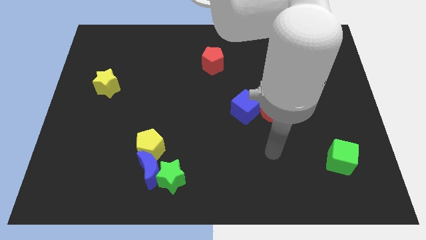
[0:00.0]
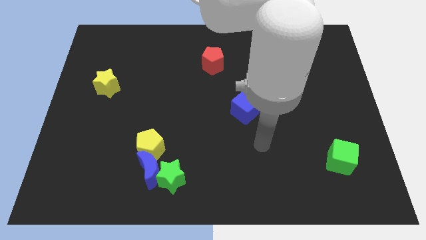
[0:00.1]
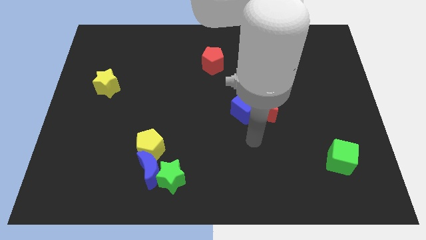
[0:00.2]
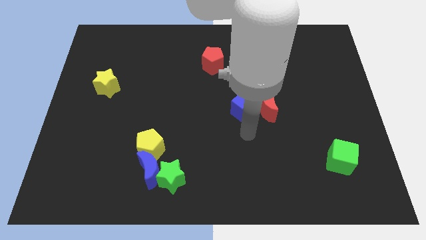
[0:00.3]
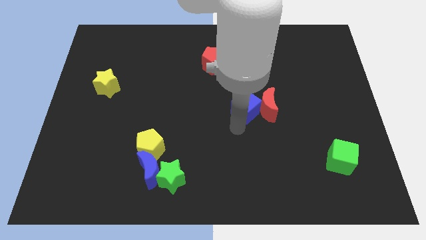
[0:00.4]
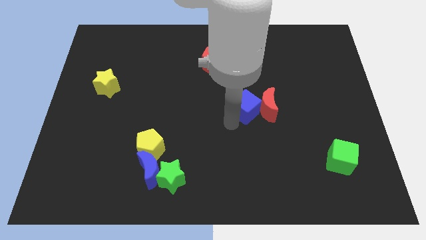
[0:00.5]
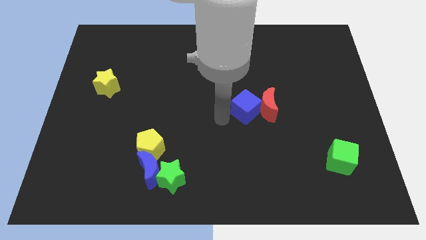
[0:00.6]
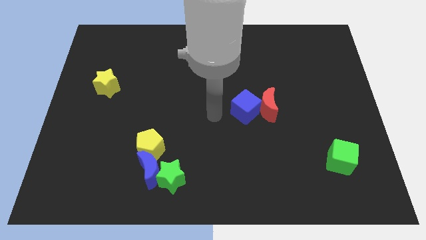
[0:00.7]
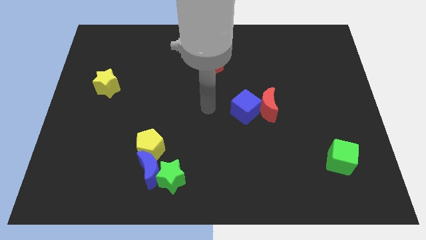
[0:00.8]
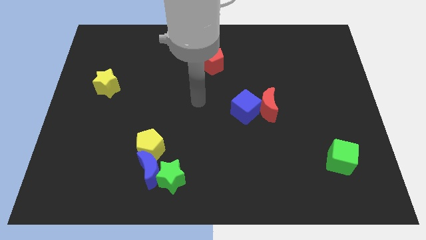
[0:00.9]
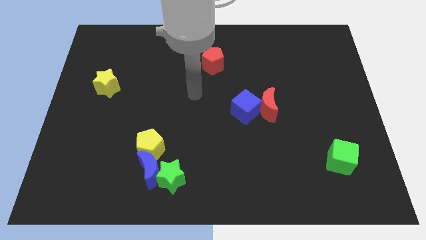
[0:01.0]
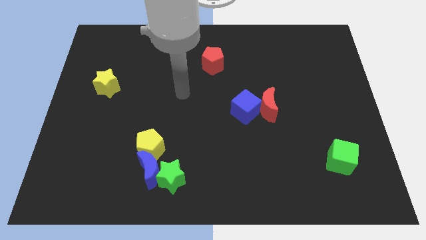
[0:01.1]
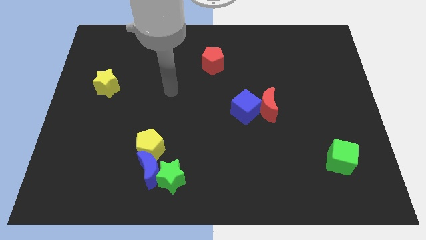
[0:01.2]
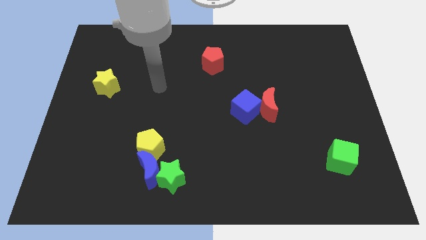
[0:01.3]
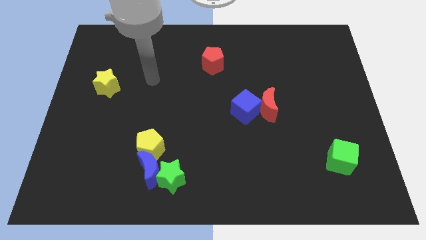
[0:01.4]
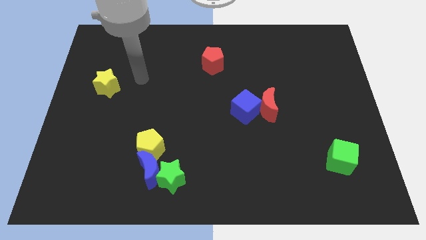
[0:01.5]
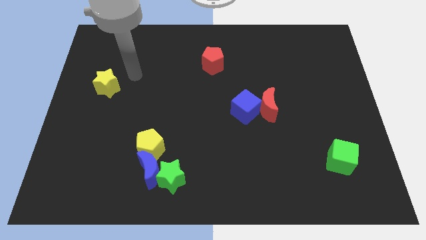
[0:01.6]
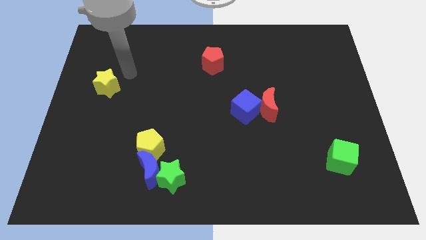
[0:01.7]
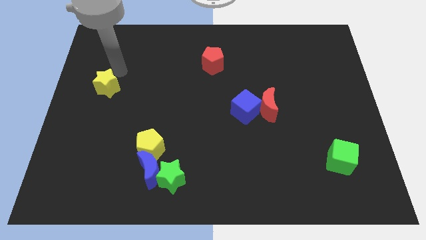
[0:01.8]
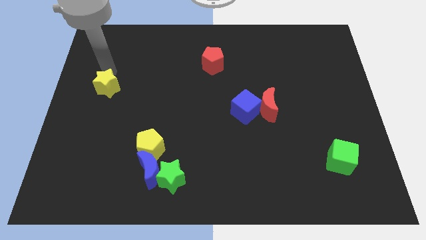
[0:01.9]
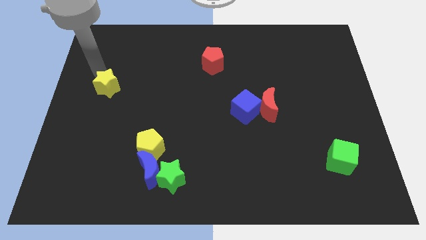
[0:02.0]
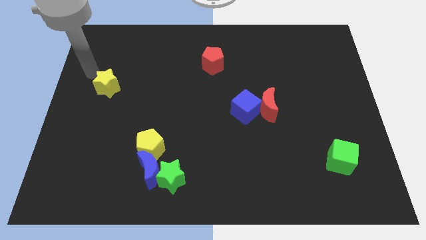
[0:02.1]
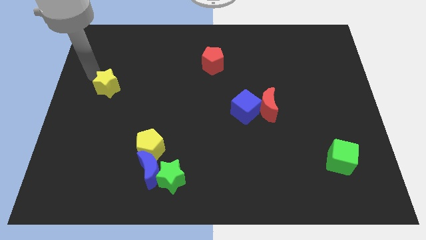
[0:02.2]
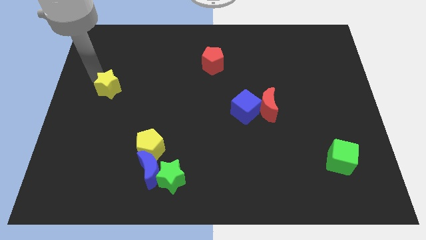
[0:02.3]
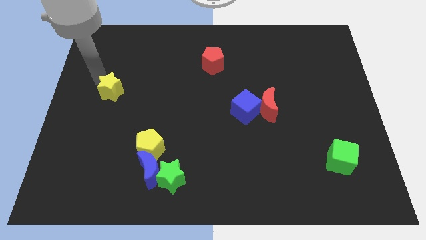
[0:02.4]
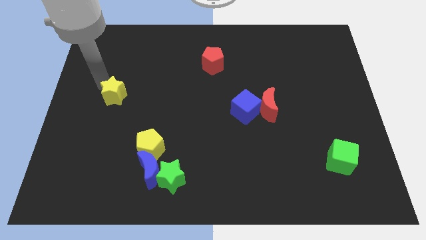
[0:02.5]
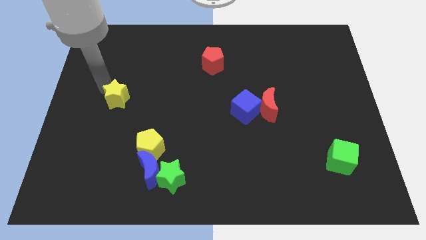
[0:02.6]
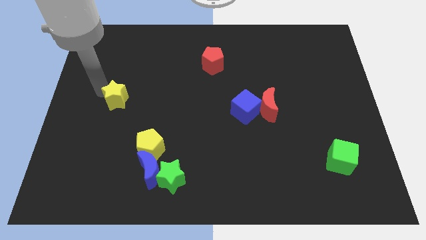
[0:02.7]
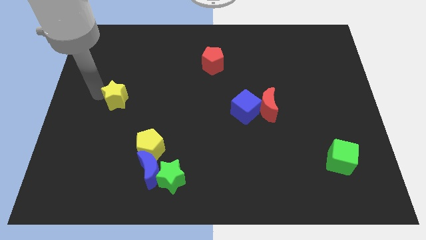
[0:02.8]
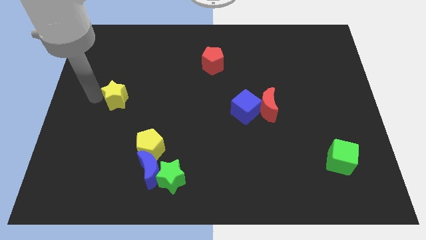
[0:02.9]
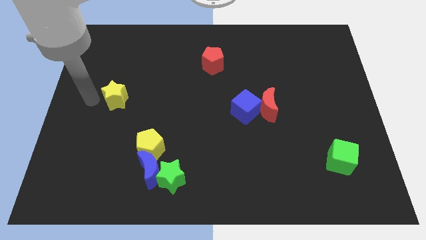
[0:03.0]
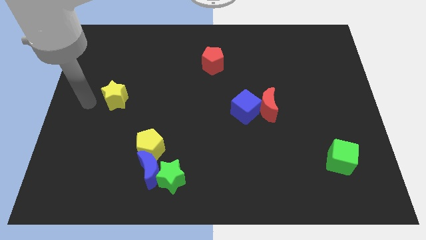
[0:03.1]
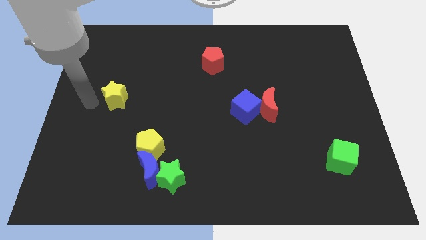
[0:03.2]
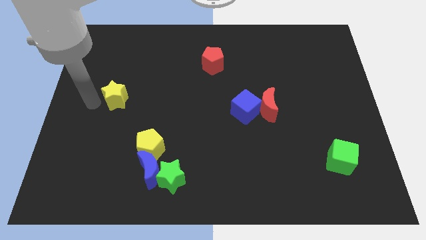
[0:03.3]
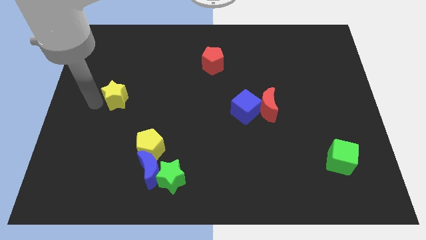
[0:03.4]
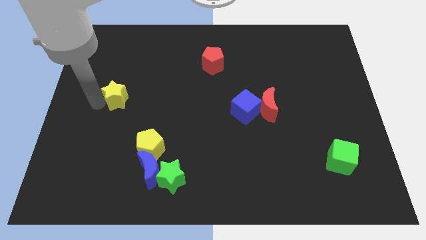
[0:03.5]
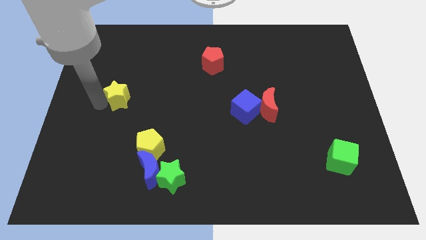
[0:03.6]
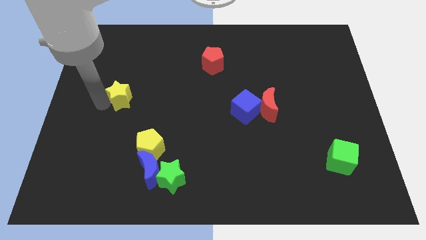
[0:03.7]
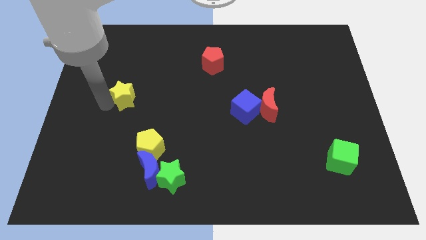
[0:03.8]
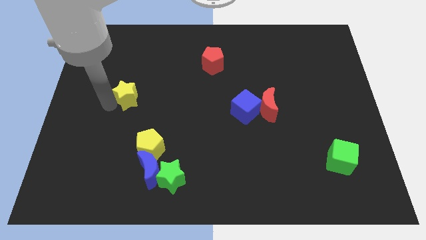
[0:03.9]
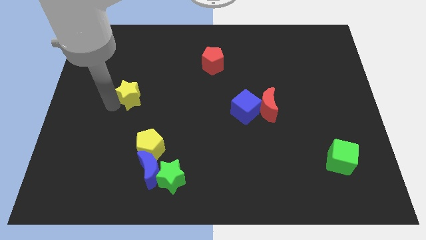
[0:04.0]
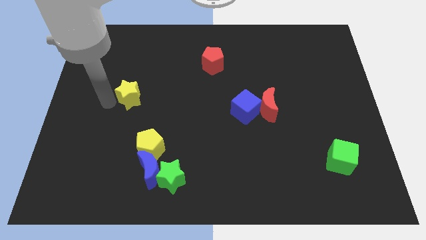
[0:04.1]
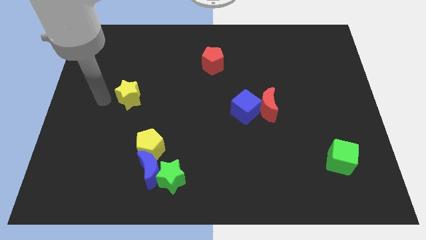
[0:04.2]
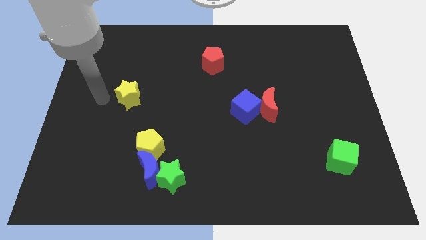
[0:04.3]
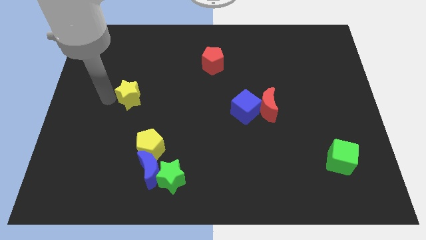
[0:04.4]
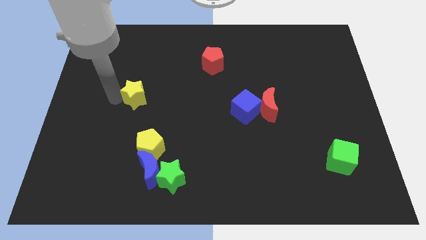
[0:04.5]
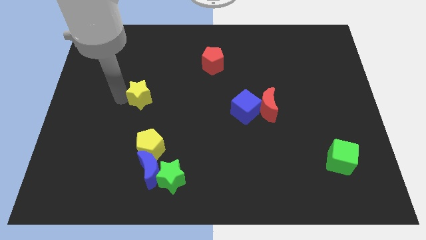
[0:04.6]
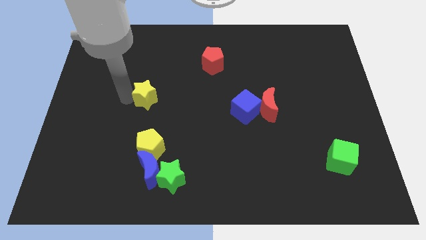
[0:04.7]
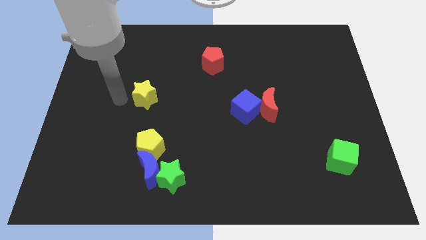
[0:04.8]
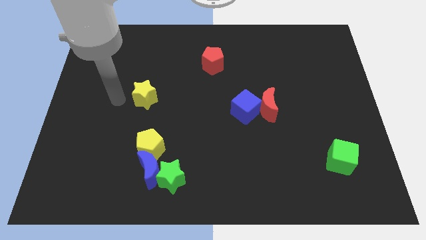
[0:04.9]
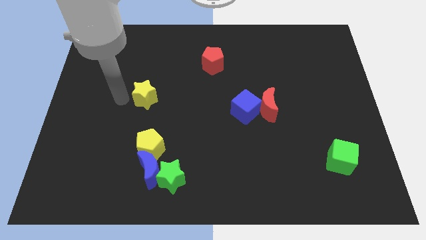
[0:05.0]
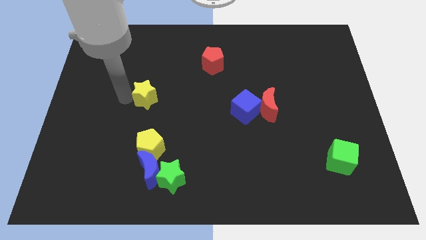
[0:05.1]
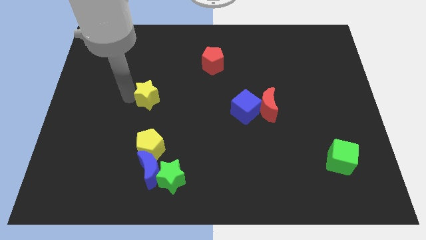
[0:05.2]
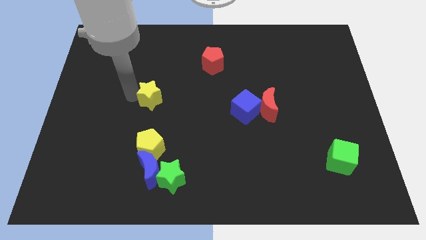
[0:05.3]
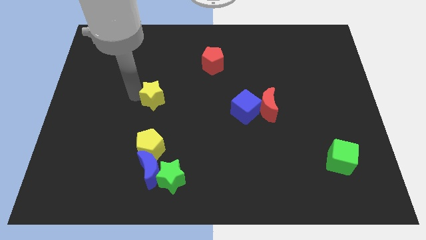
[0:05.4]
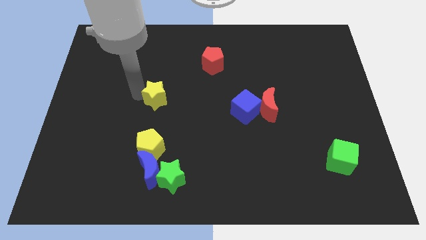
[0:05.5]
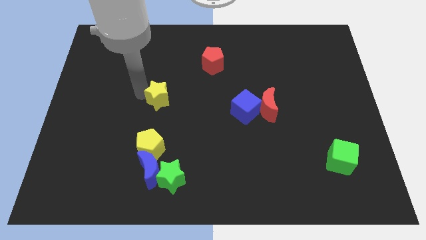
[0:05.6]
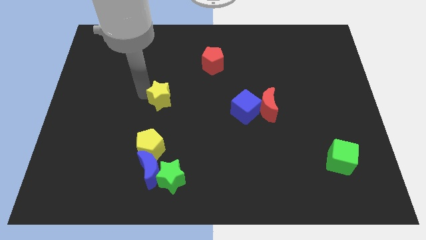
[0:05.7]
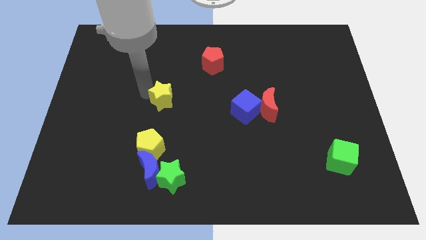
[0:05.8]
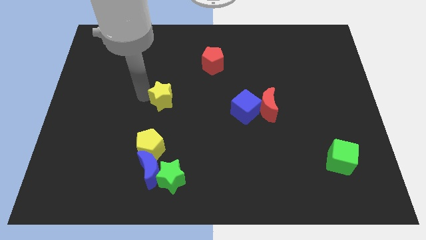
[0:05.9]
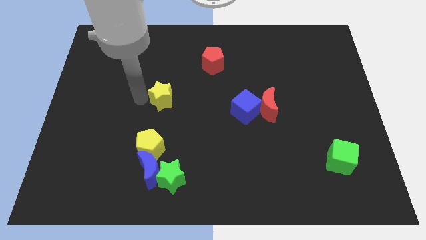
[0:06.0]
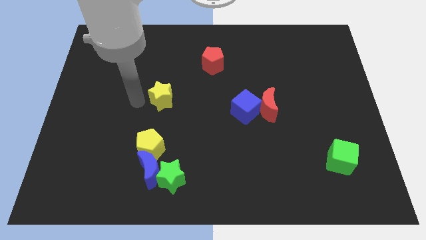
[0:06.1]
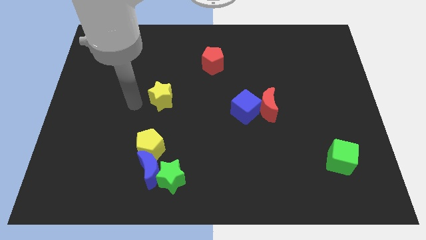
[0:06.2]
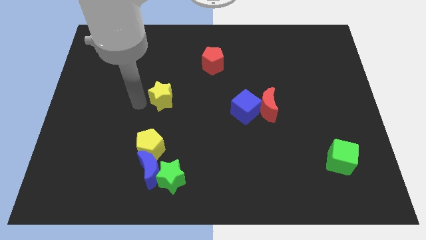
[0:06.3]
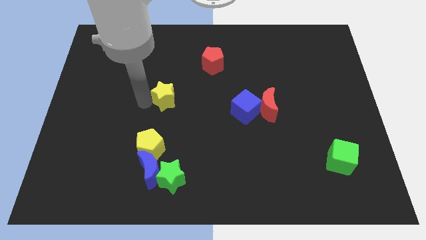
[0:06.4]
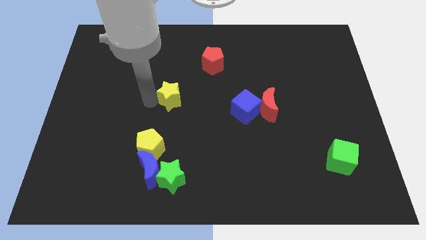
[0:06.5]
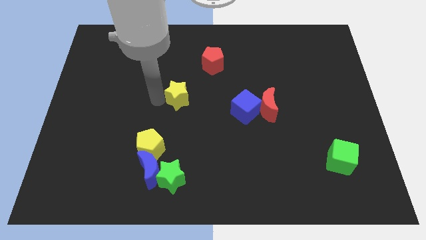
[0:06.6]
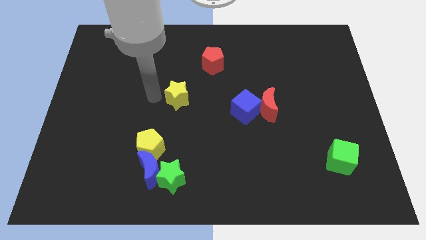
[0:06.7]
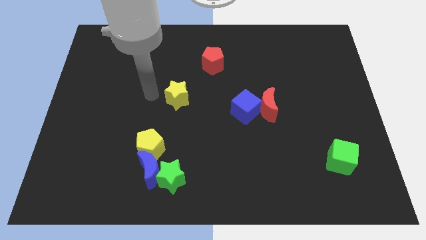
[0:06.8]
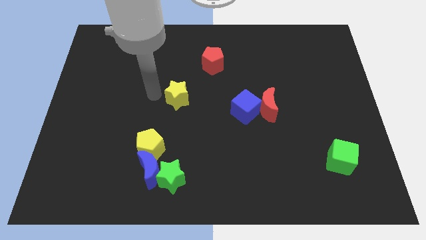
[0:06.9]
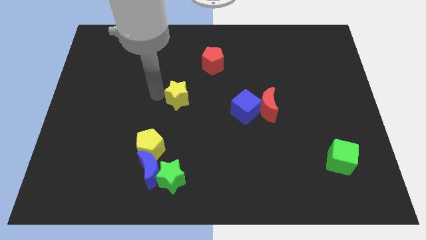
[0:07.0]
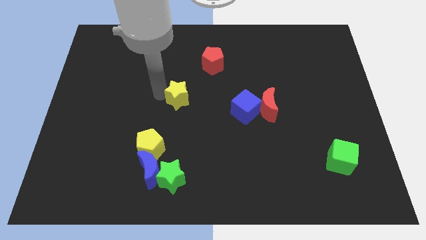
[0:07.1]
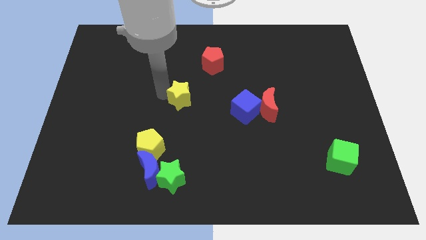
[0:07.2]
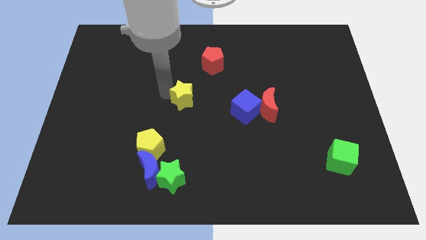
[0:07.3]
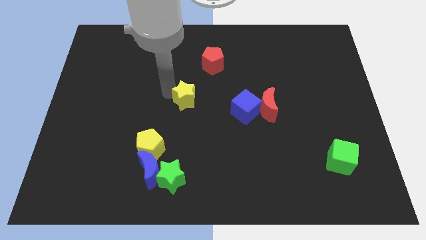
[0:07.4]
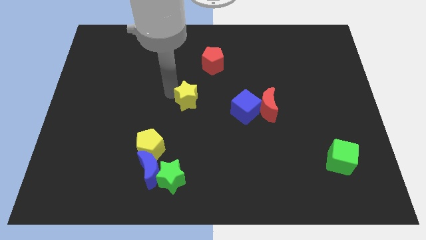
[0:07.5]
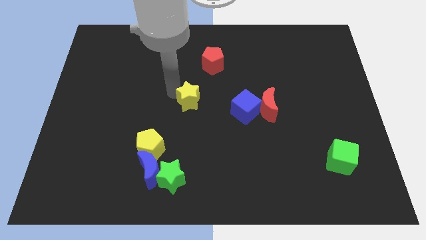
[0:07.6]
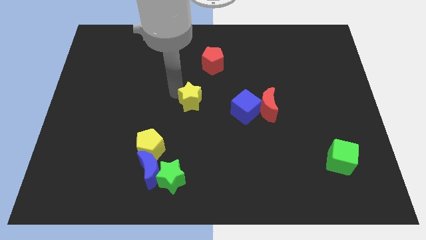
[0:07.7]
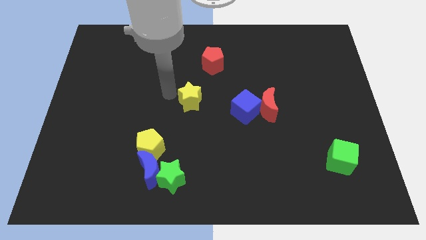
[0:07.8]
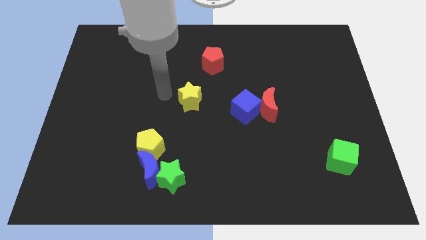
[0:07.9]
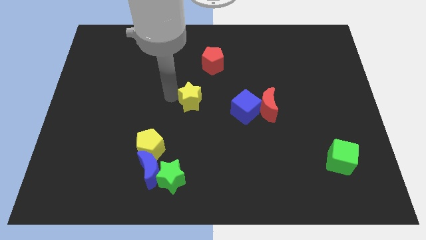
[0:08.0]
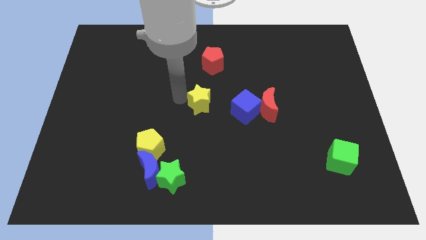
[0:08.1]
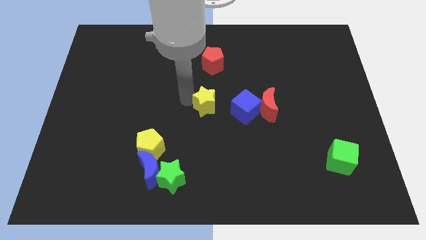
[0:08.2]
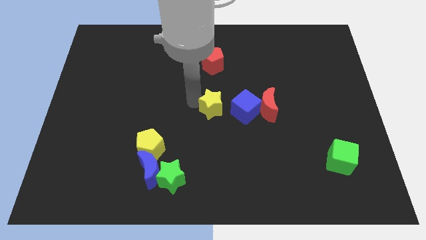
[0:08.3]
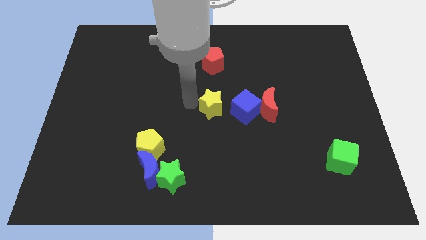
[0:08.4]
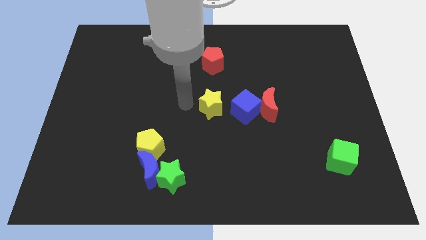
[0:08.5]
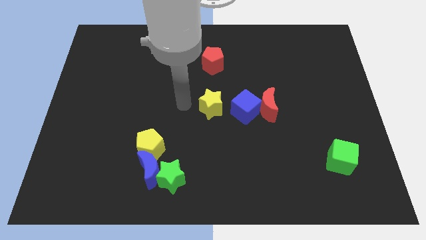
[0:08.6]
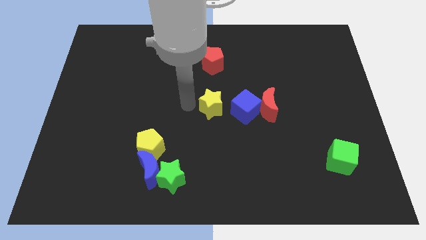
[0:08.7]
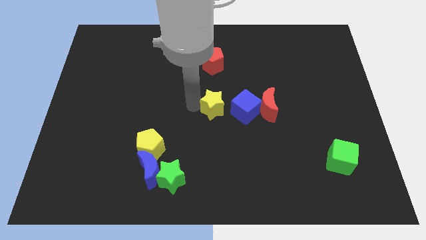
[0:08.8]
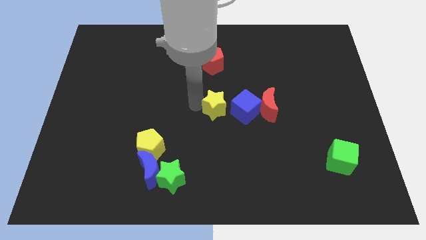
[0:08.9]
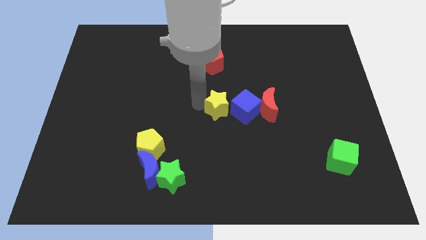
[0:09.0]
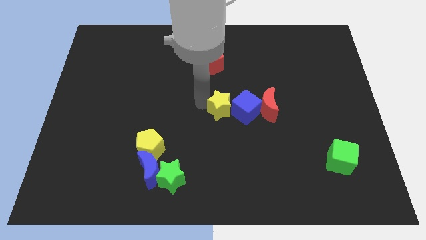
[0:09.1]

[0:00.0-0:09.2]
push the yellow star close to the blue cube
